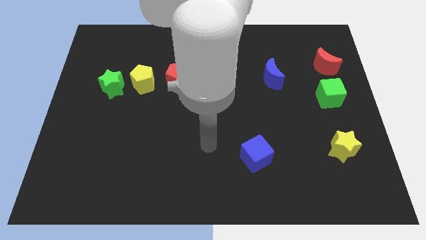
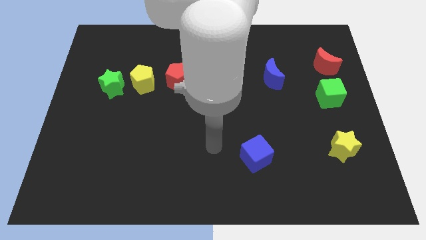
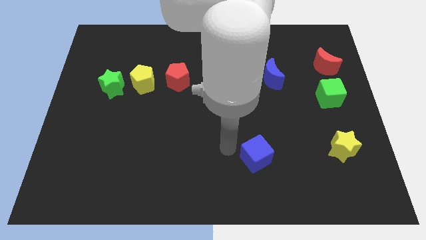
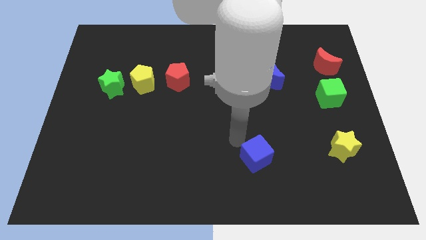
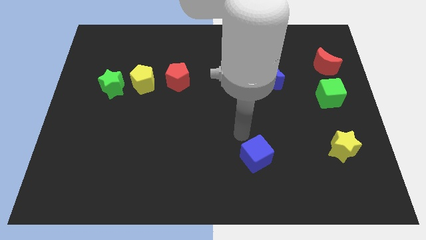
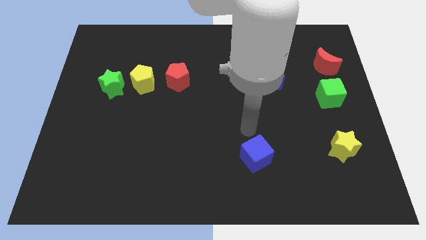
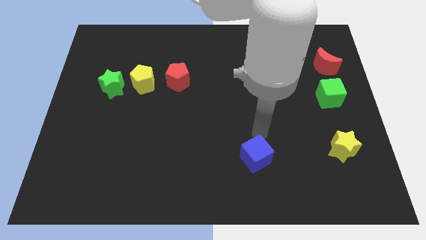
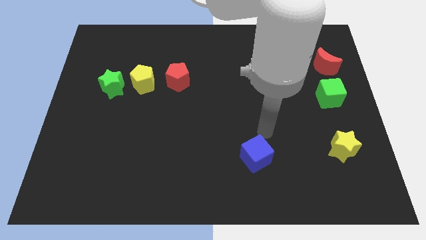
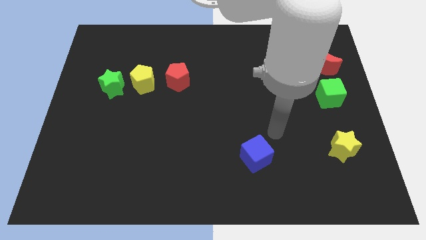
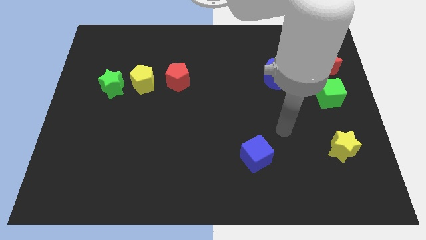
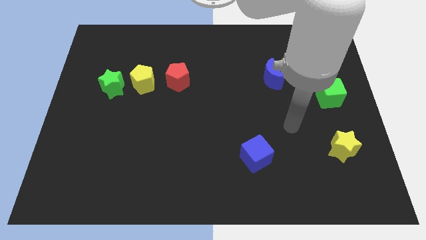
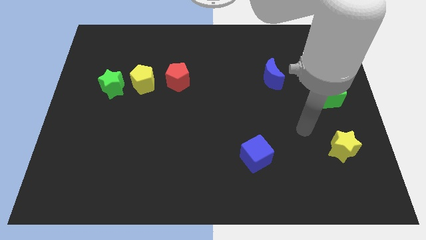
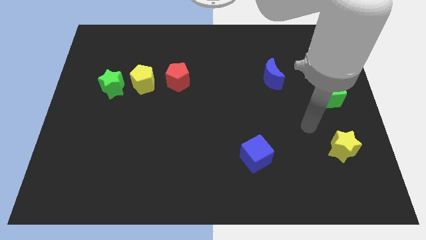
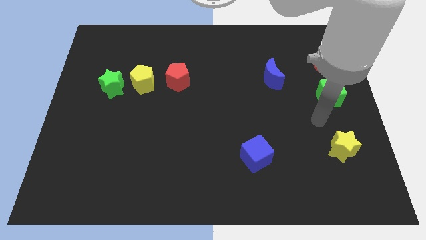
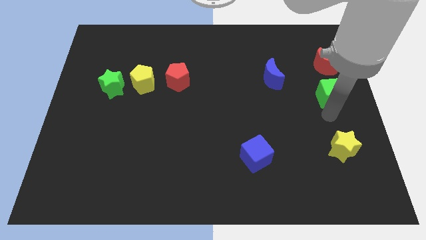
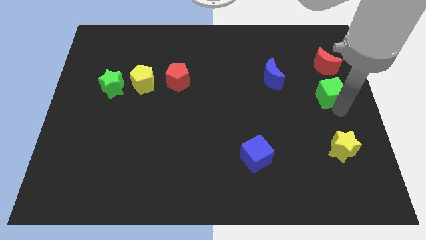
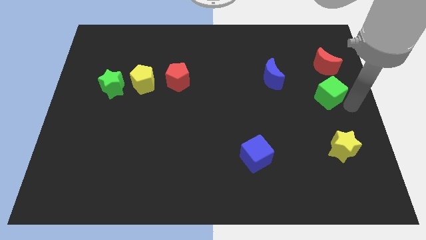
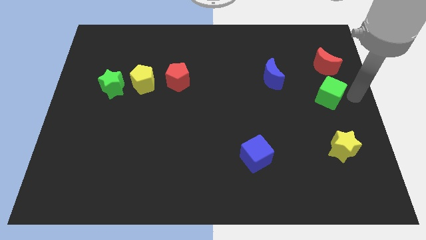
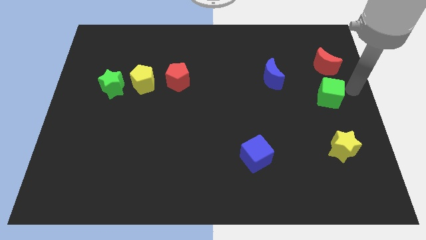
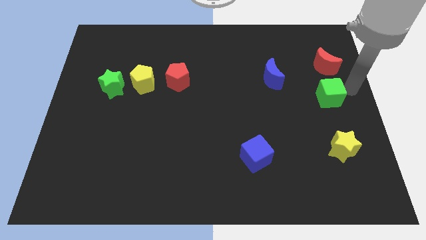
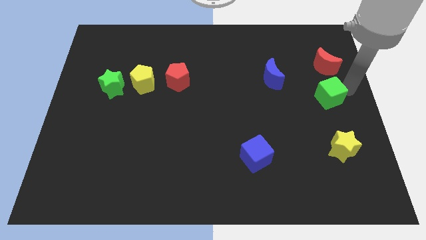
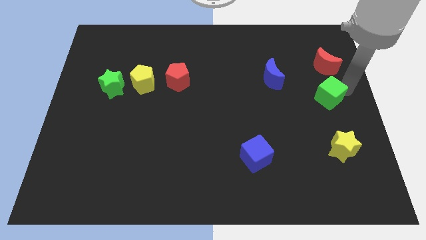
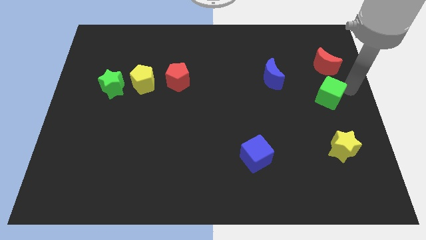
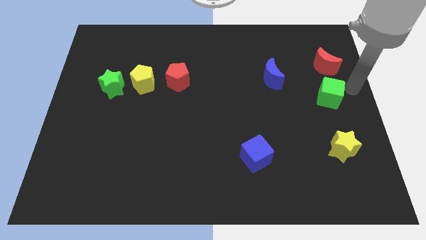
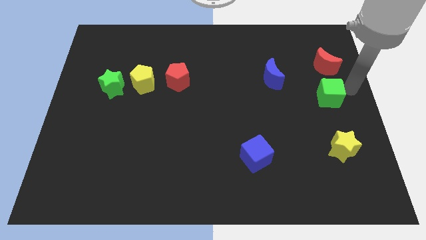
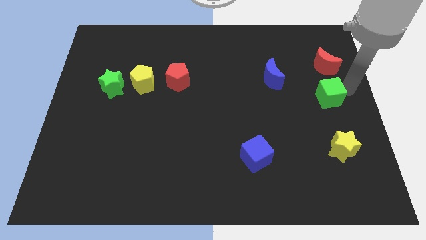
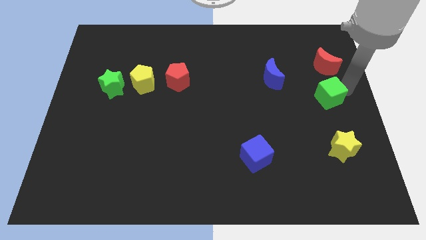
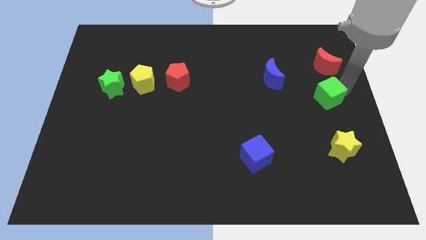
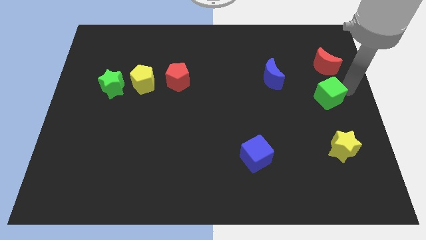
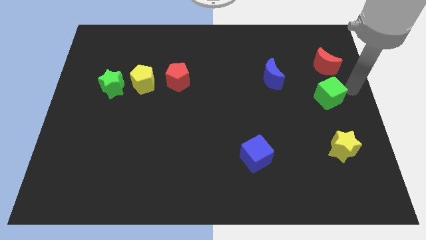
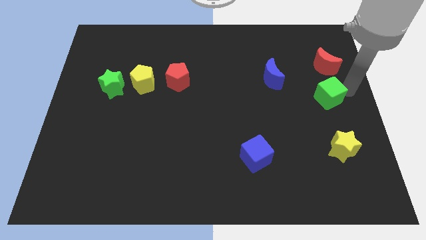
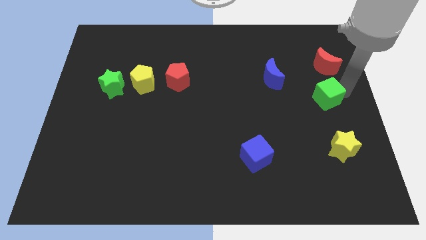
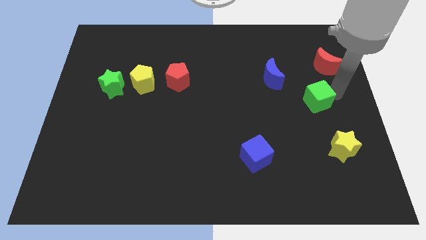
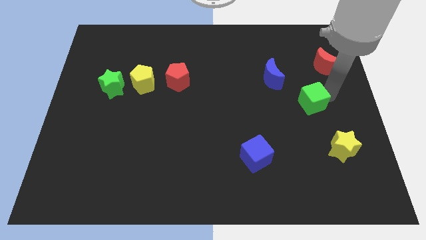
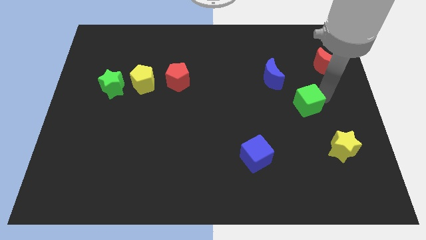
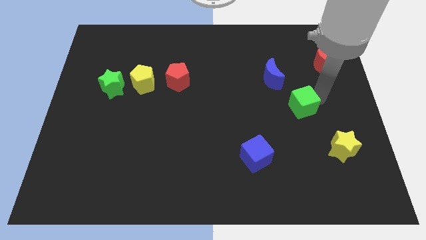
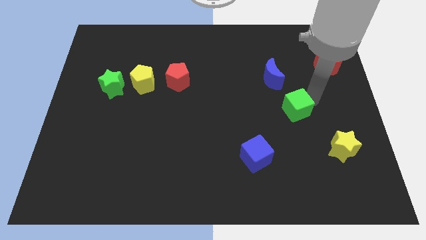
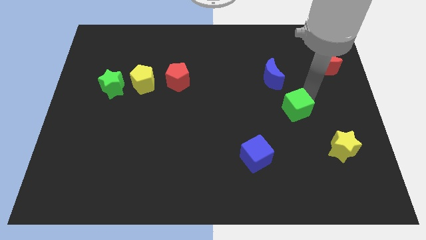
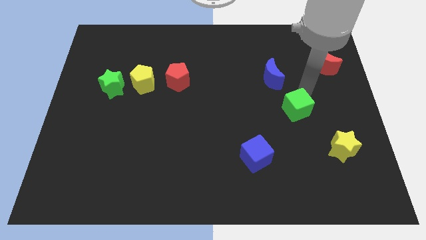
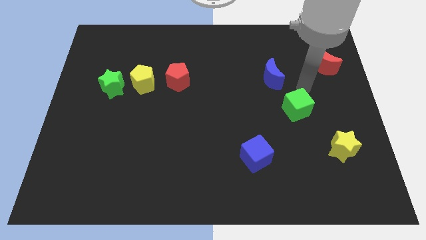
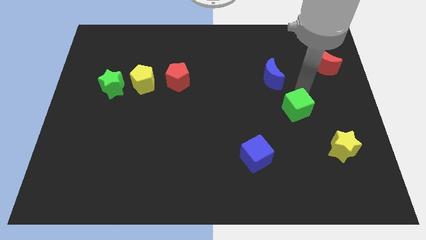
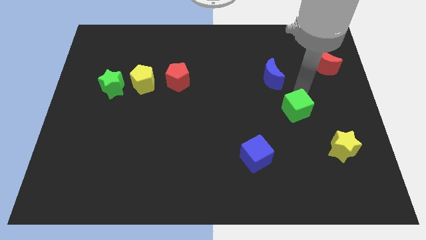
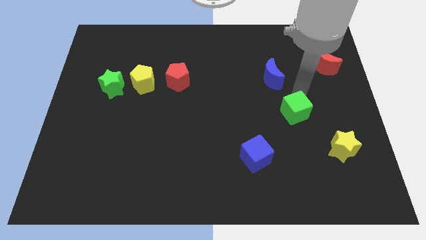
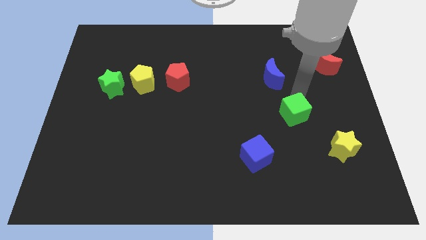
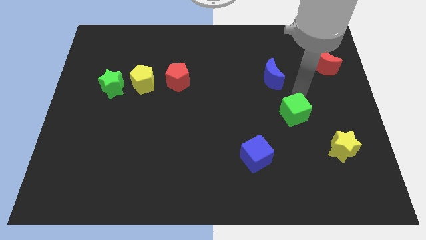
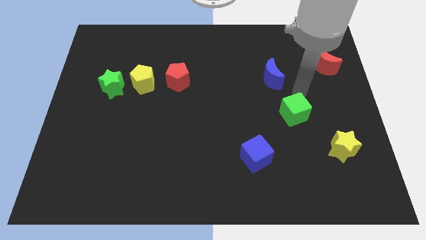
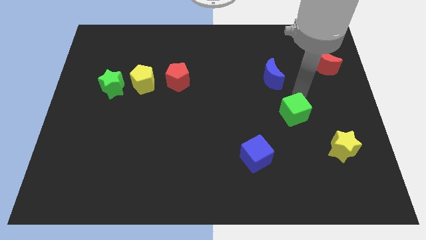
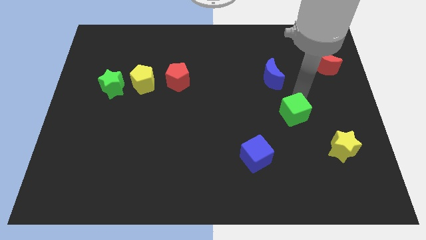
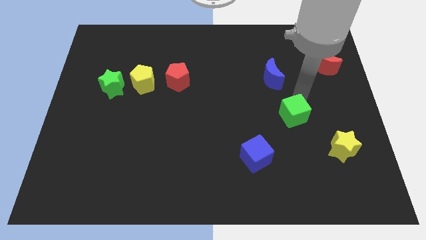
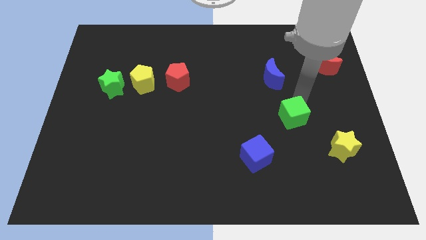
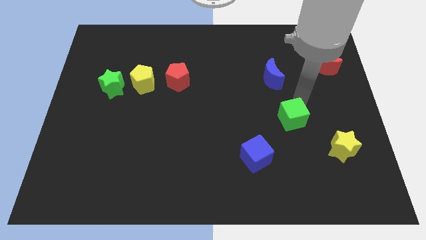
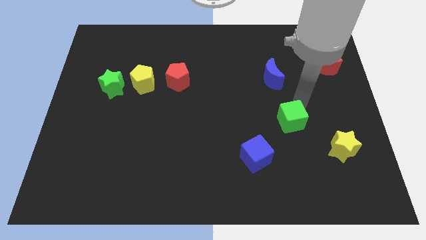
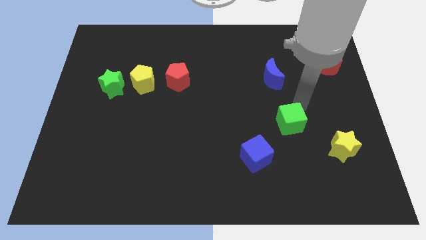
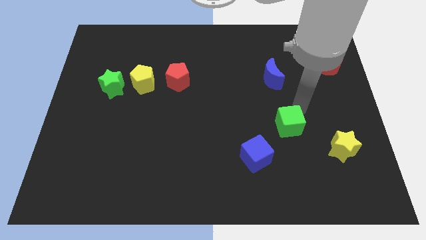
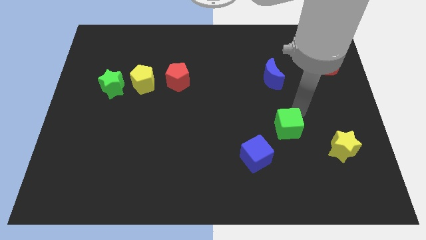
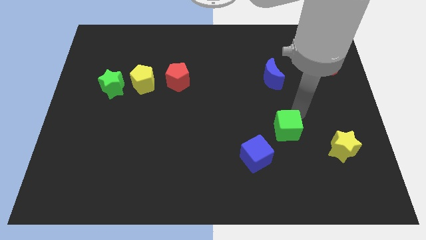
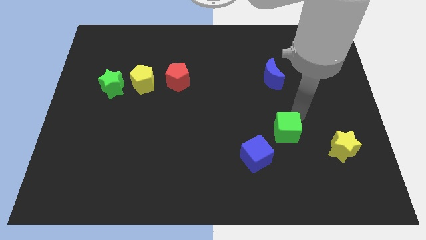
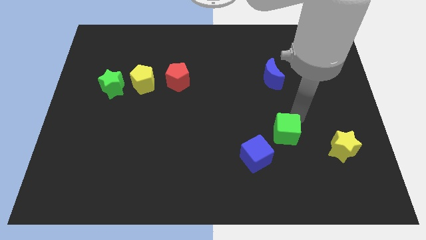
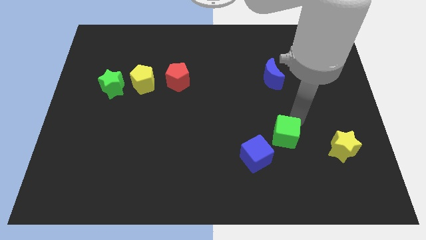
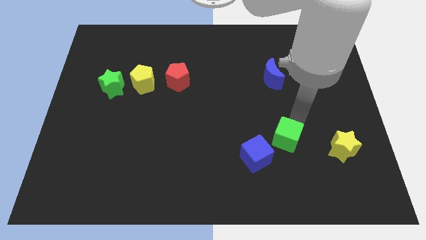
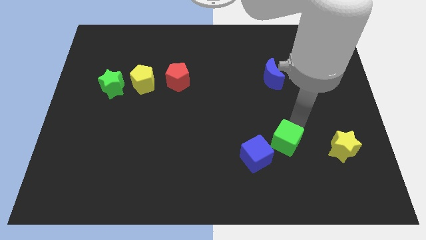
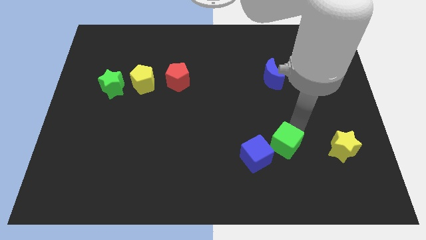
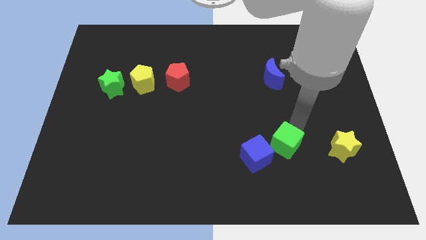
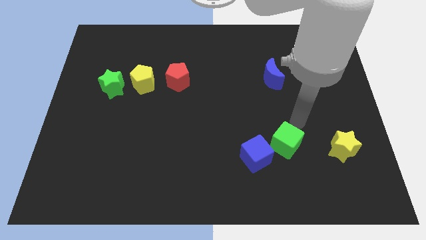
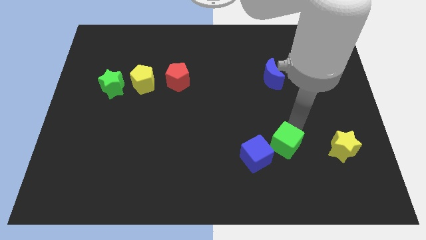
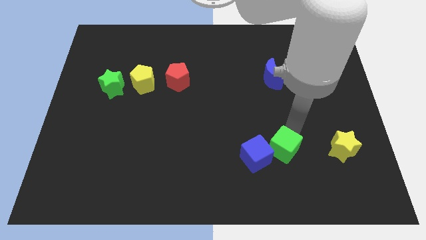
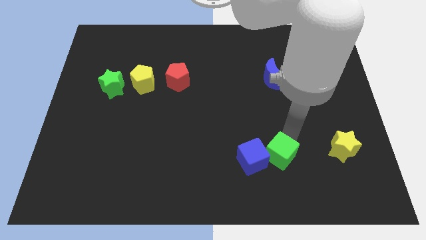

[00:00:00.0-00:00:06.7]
slide the green cube down and to the left

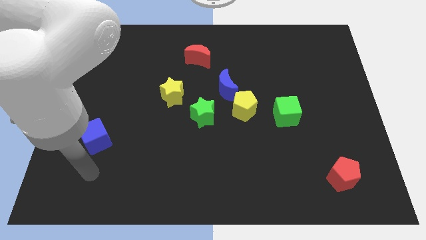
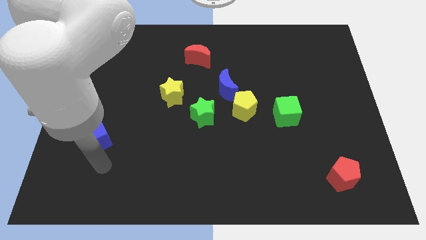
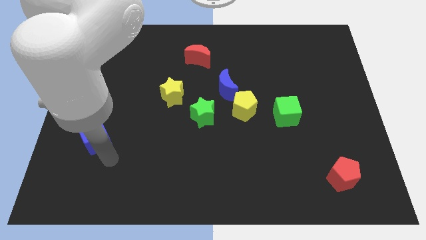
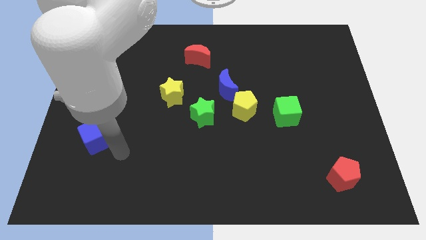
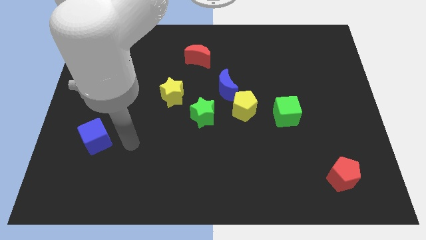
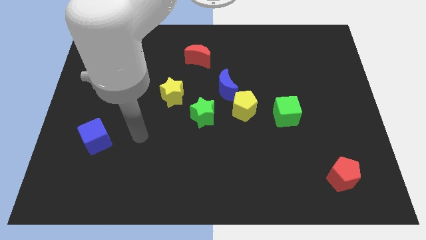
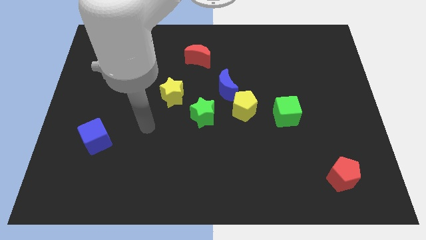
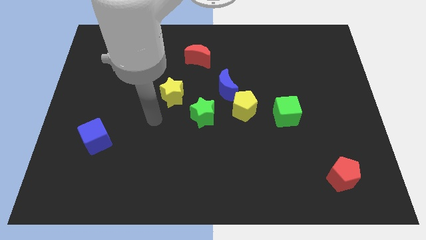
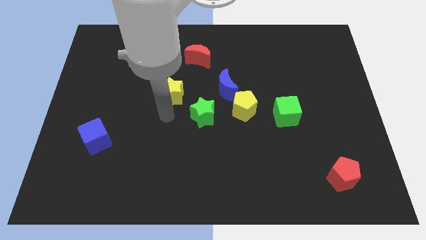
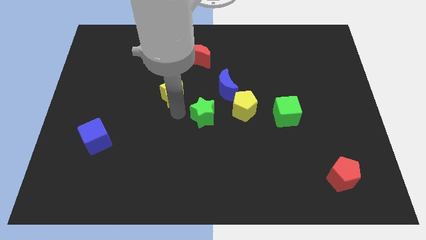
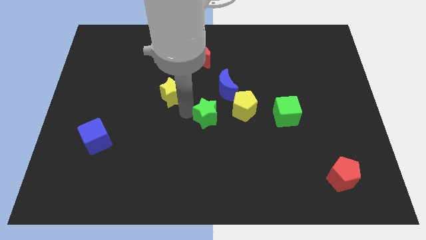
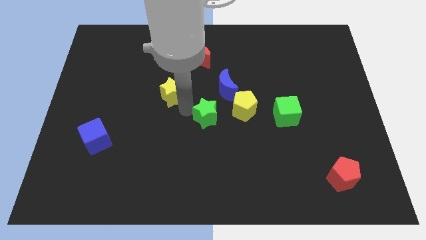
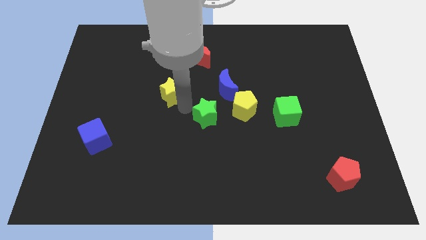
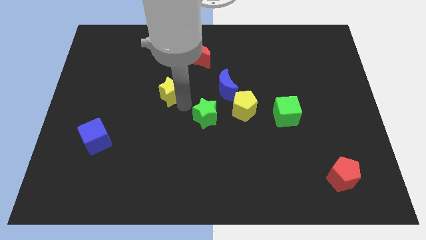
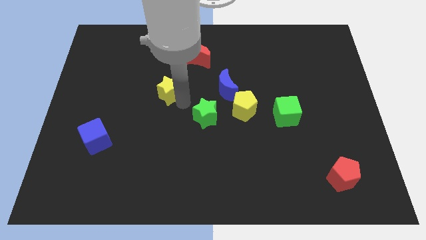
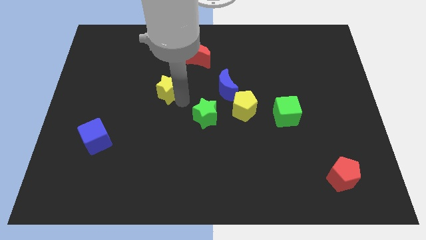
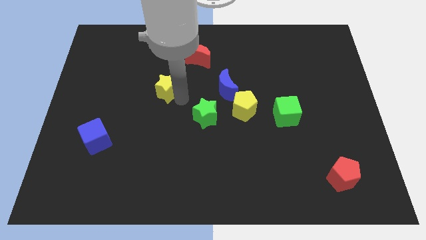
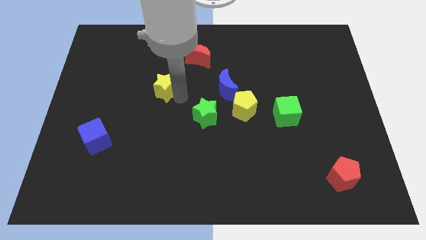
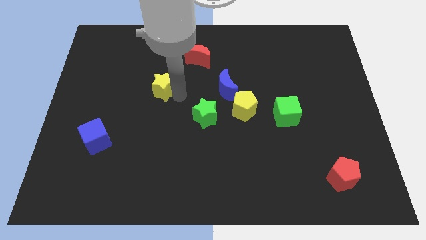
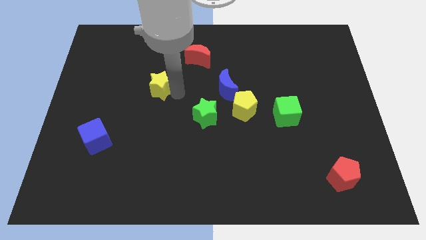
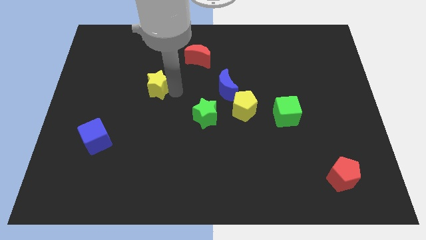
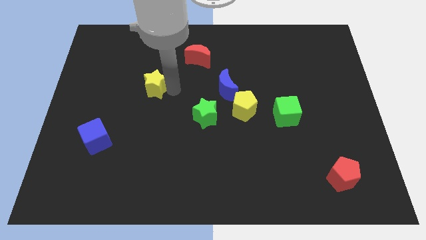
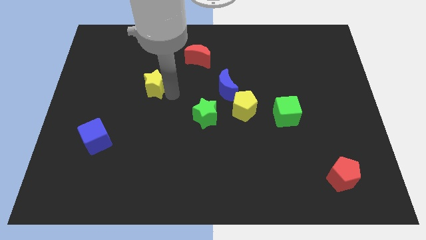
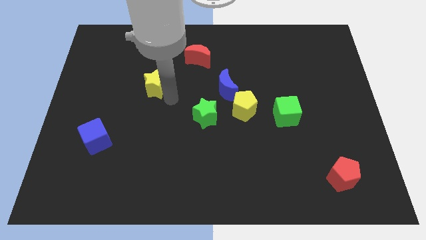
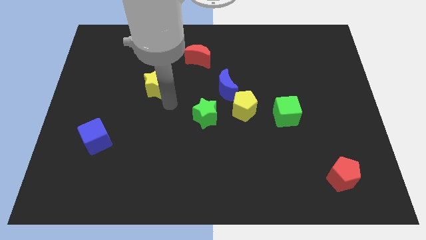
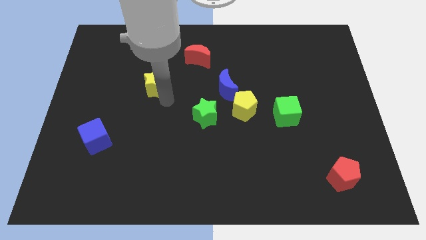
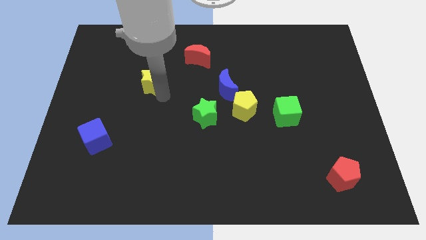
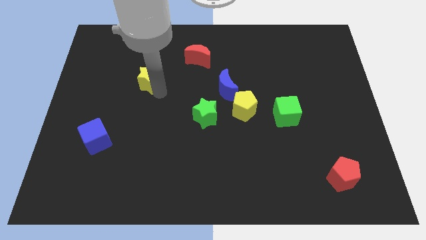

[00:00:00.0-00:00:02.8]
slide the yellow star a little bit upwards and to the left diagonally
